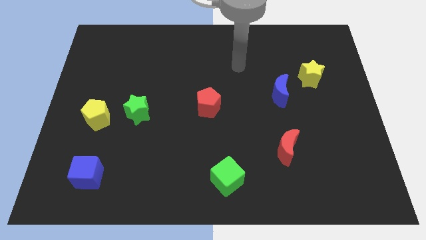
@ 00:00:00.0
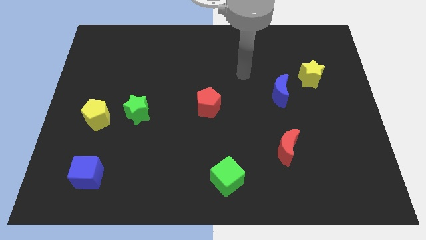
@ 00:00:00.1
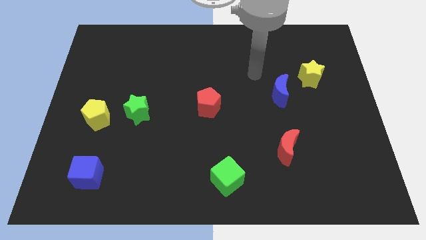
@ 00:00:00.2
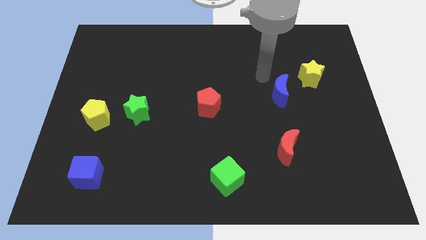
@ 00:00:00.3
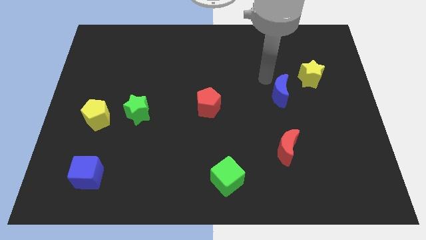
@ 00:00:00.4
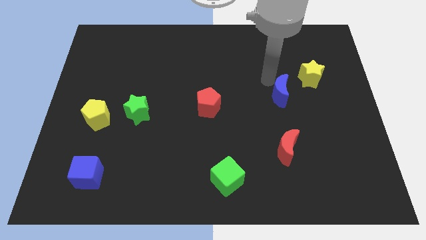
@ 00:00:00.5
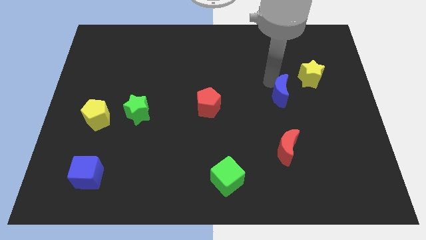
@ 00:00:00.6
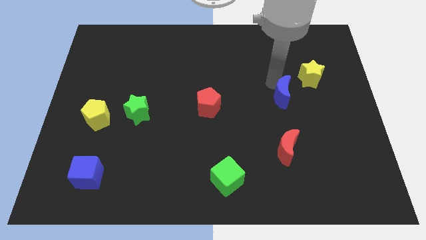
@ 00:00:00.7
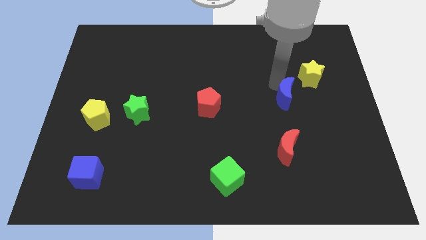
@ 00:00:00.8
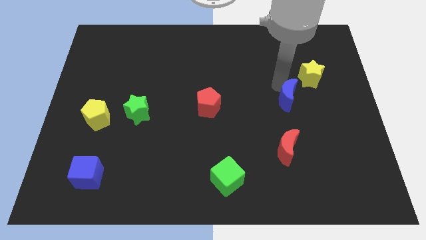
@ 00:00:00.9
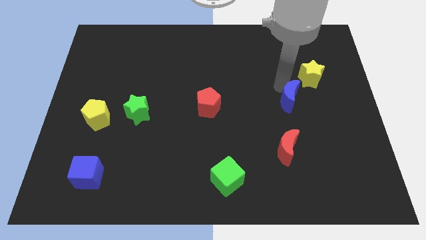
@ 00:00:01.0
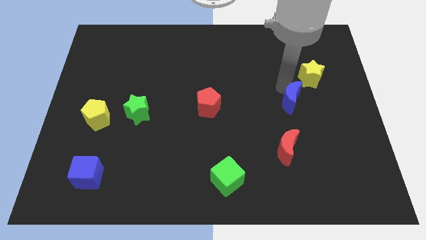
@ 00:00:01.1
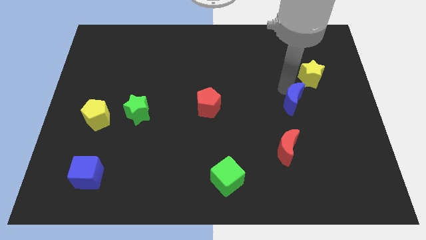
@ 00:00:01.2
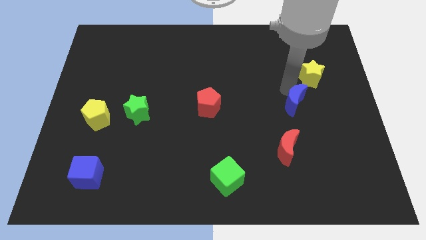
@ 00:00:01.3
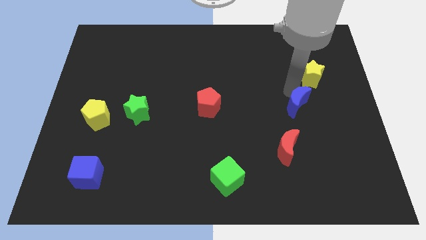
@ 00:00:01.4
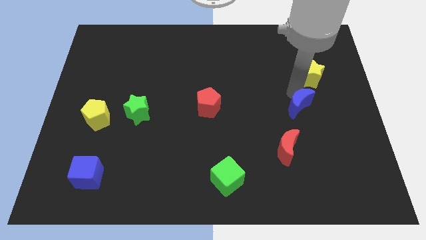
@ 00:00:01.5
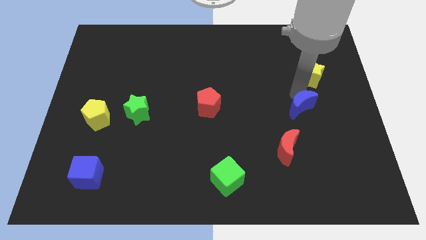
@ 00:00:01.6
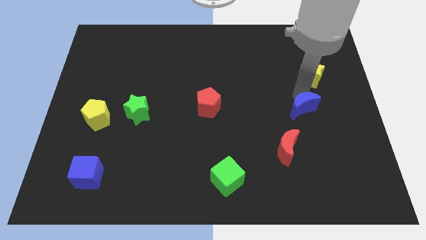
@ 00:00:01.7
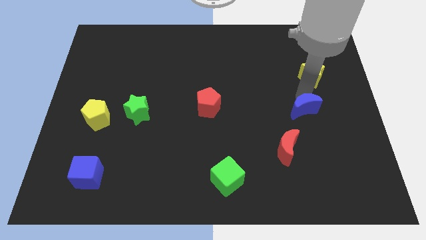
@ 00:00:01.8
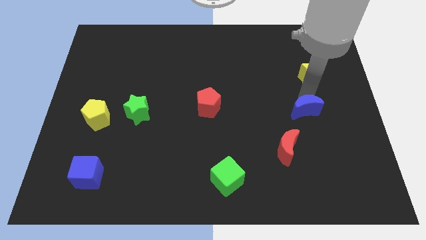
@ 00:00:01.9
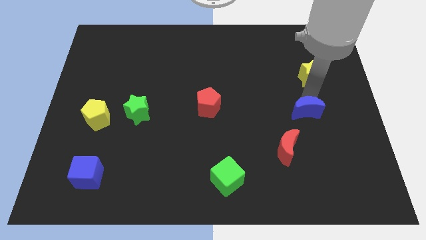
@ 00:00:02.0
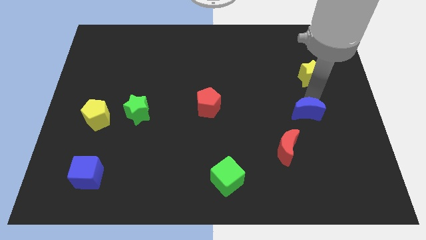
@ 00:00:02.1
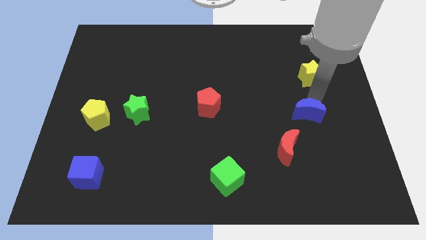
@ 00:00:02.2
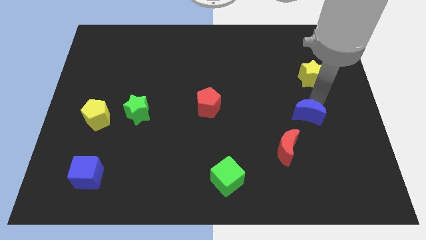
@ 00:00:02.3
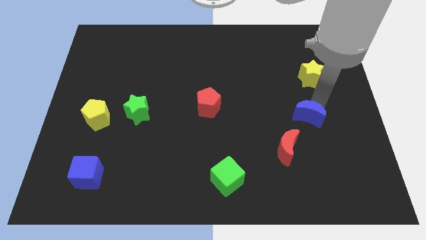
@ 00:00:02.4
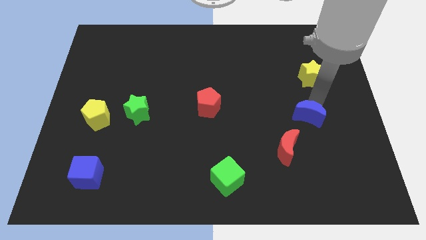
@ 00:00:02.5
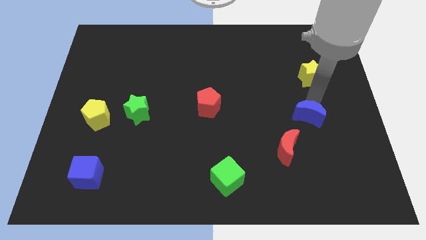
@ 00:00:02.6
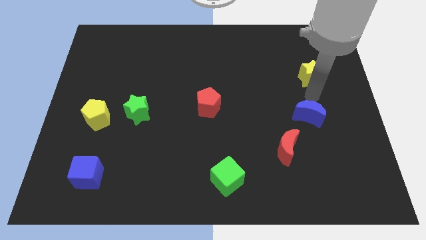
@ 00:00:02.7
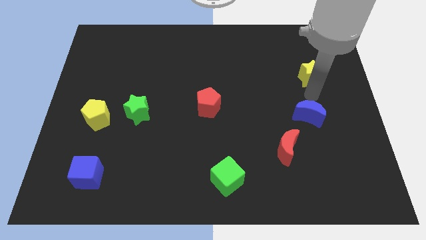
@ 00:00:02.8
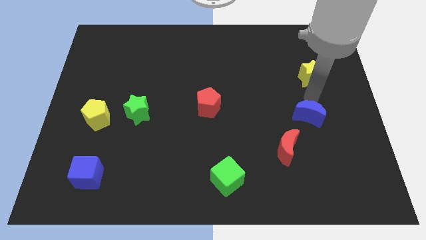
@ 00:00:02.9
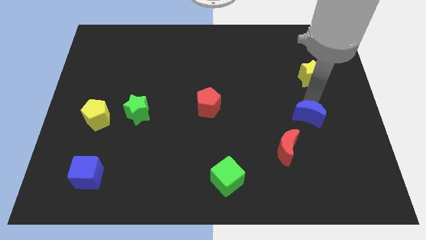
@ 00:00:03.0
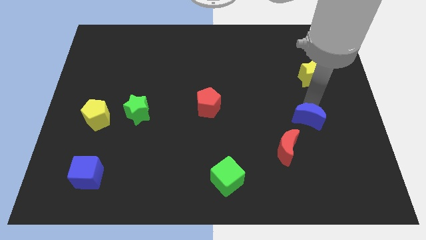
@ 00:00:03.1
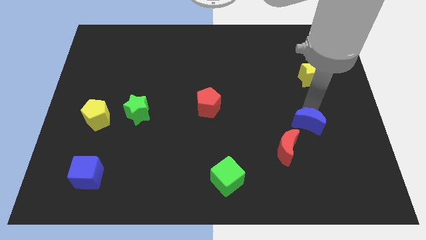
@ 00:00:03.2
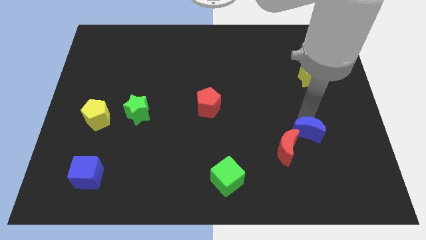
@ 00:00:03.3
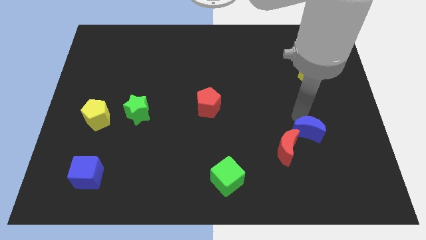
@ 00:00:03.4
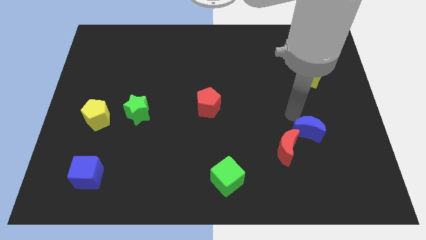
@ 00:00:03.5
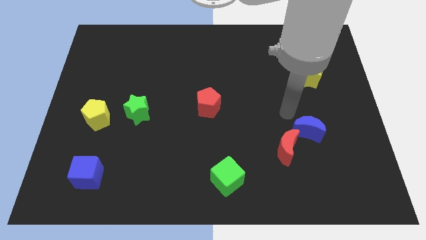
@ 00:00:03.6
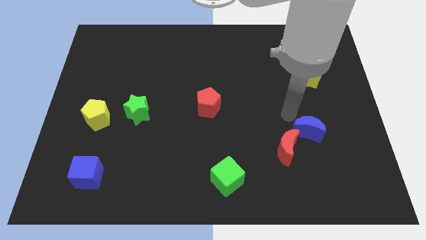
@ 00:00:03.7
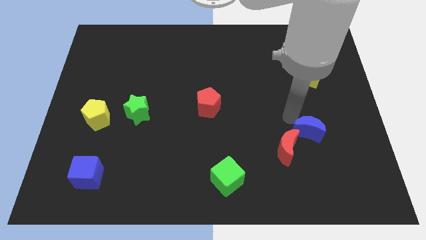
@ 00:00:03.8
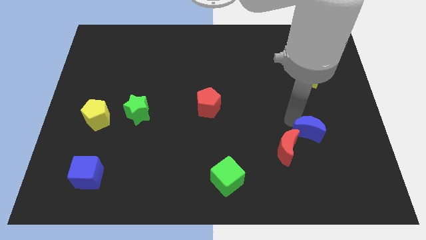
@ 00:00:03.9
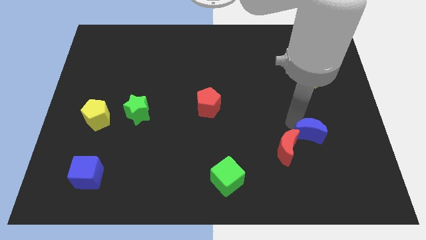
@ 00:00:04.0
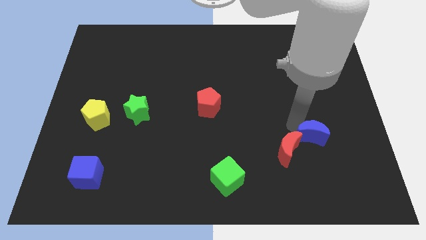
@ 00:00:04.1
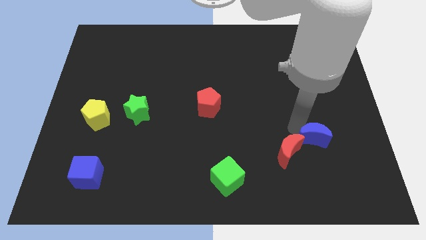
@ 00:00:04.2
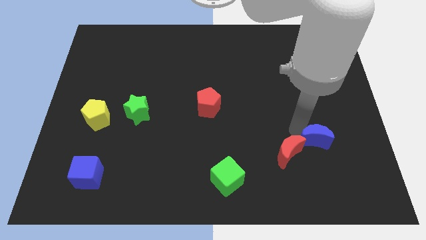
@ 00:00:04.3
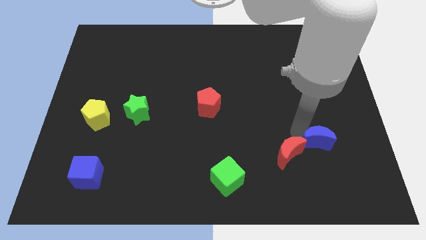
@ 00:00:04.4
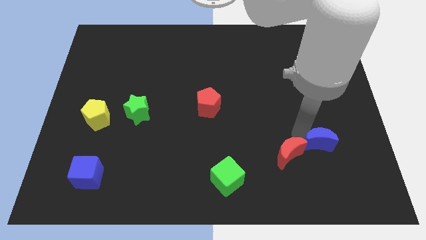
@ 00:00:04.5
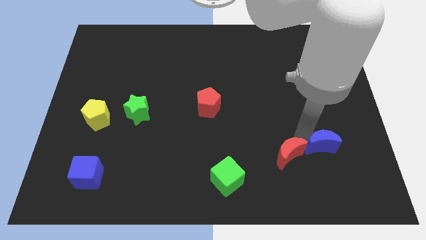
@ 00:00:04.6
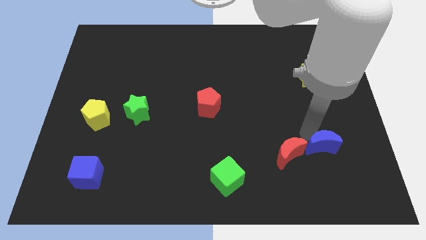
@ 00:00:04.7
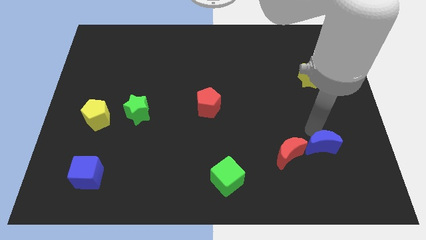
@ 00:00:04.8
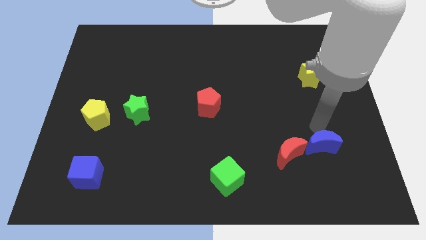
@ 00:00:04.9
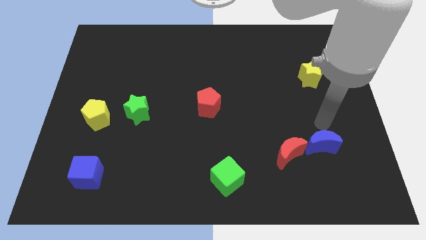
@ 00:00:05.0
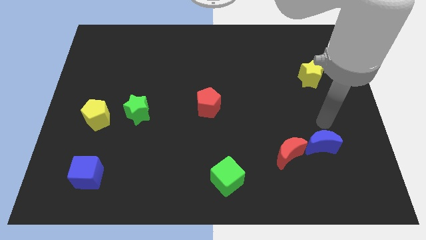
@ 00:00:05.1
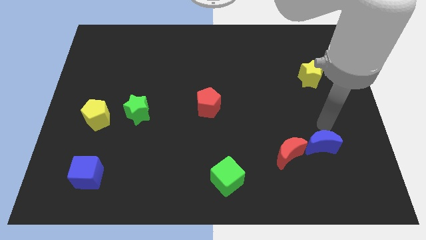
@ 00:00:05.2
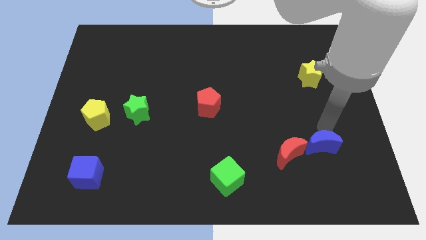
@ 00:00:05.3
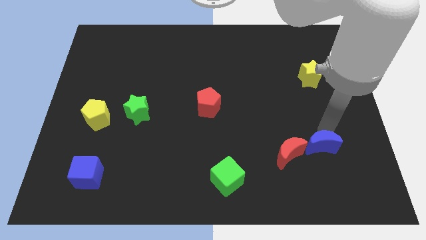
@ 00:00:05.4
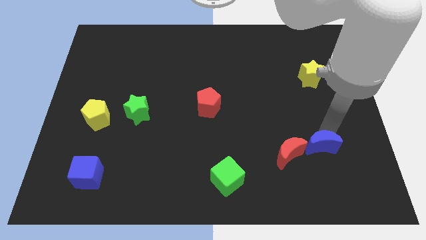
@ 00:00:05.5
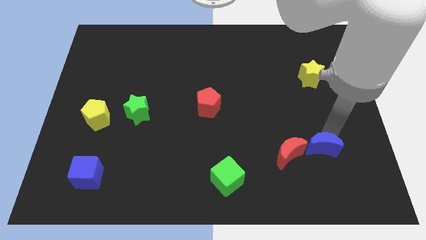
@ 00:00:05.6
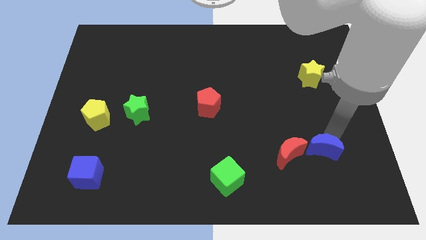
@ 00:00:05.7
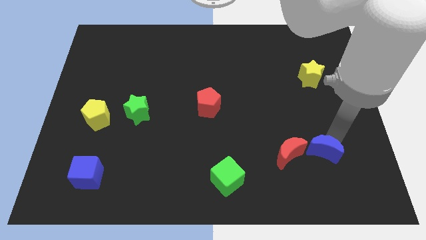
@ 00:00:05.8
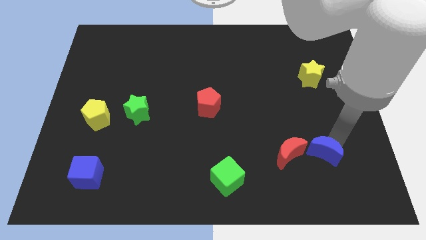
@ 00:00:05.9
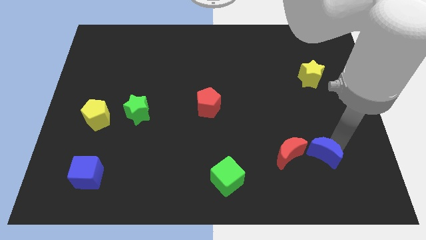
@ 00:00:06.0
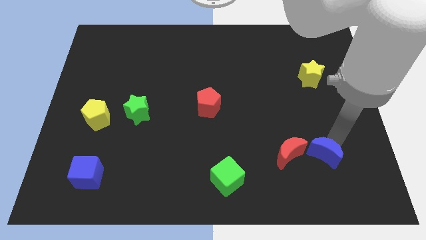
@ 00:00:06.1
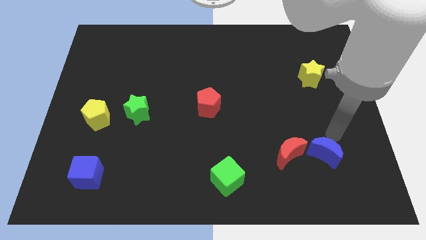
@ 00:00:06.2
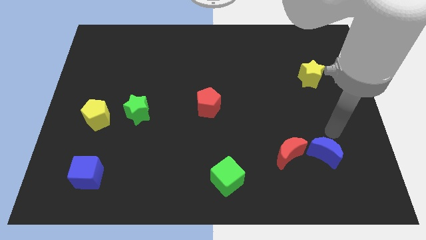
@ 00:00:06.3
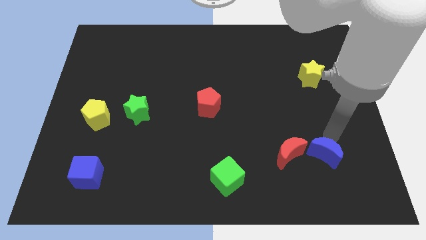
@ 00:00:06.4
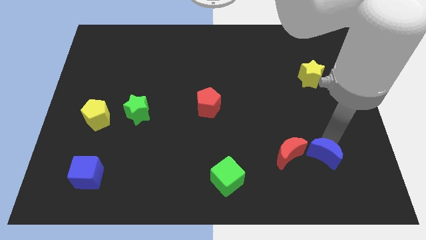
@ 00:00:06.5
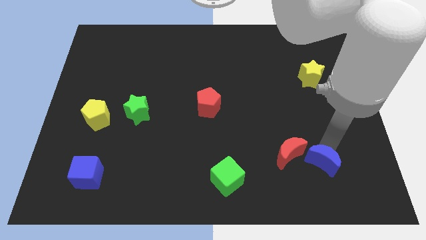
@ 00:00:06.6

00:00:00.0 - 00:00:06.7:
slide the blue moon to the bottom right of the red moon

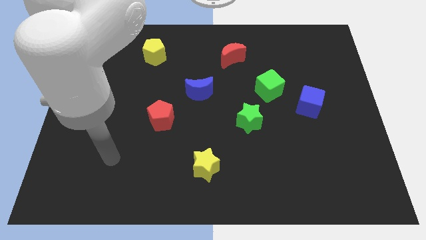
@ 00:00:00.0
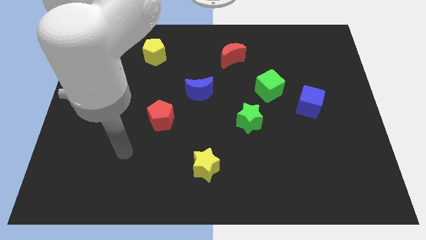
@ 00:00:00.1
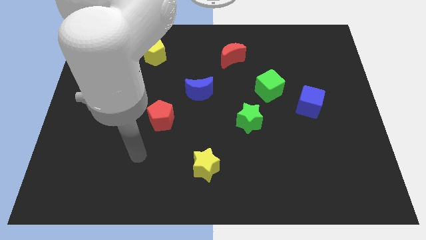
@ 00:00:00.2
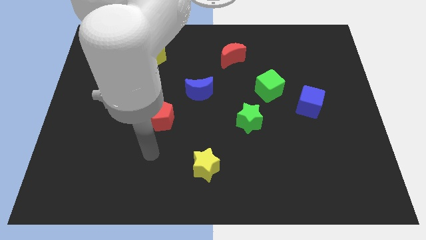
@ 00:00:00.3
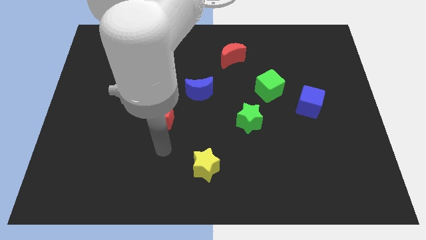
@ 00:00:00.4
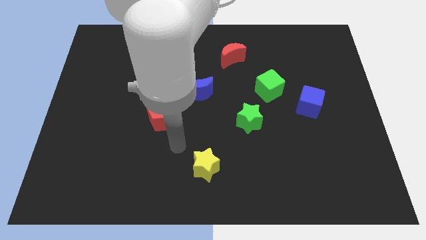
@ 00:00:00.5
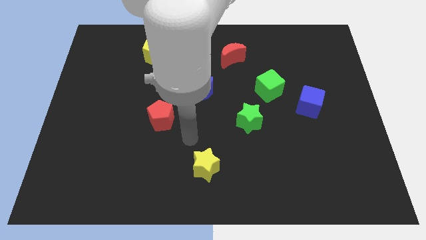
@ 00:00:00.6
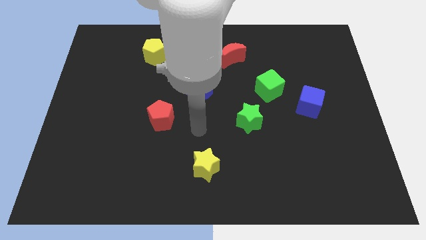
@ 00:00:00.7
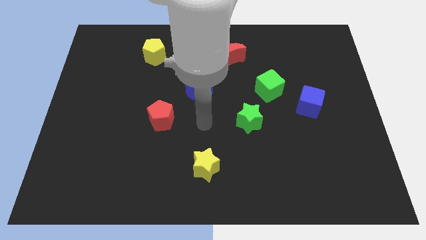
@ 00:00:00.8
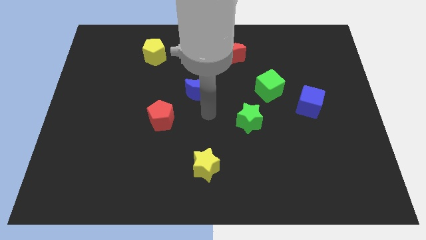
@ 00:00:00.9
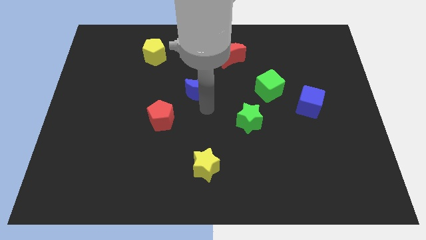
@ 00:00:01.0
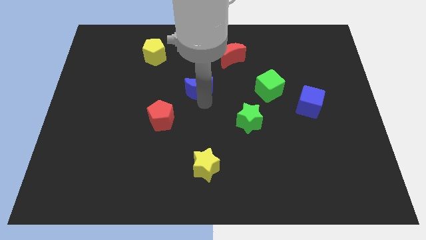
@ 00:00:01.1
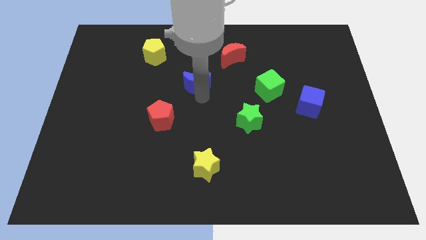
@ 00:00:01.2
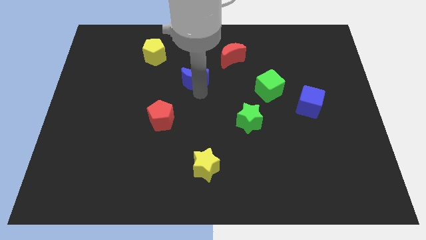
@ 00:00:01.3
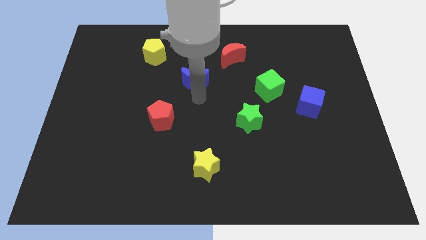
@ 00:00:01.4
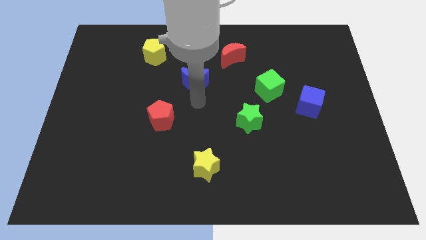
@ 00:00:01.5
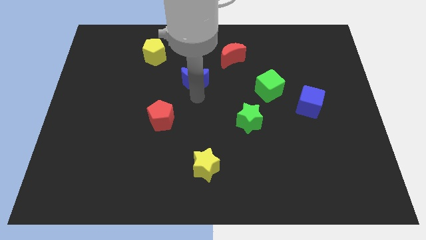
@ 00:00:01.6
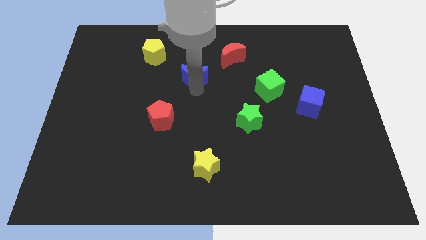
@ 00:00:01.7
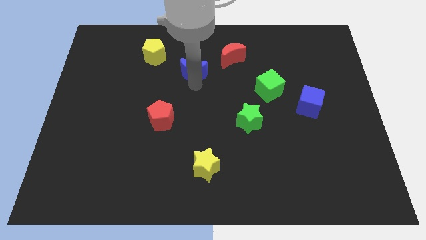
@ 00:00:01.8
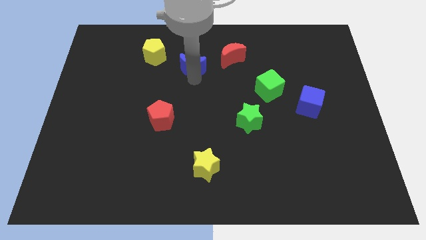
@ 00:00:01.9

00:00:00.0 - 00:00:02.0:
push the blue moon to the left side of the red moon
